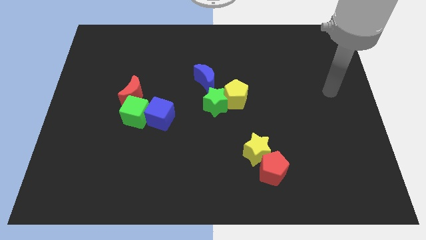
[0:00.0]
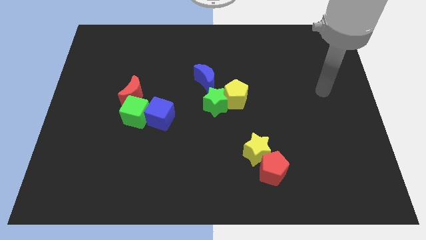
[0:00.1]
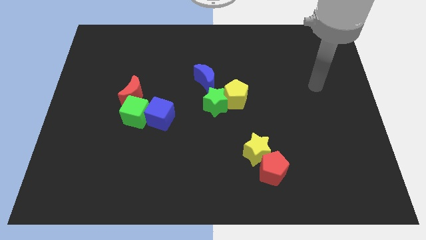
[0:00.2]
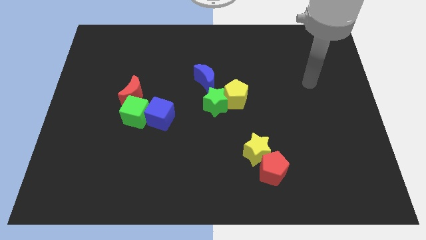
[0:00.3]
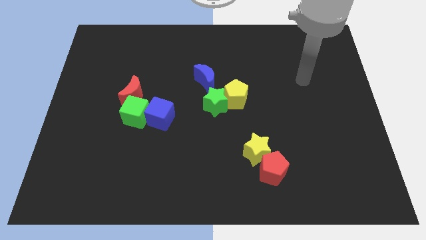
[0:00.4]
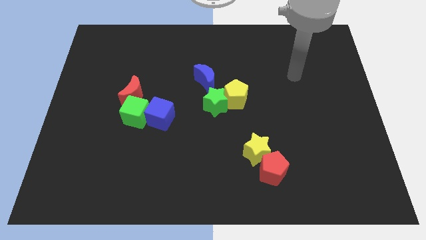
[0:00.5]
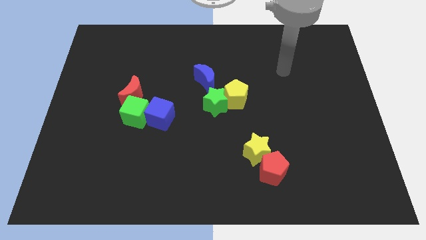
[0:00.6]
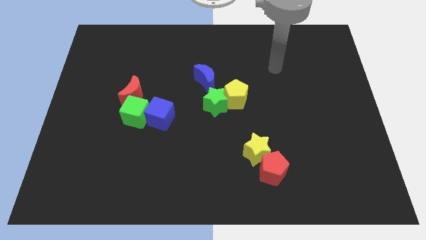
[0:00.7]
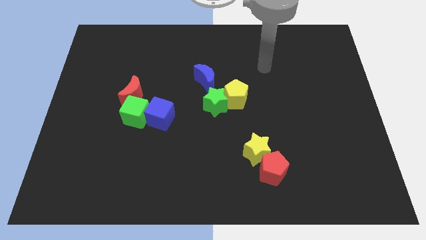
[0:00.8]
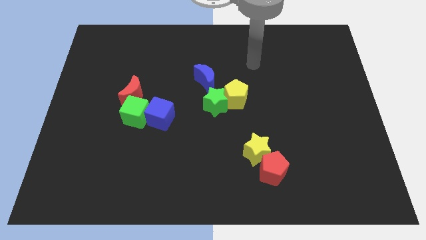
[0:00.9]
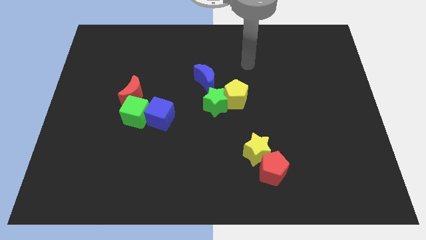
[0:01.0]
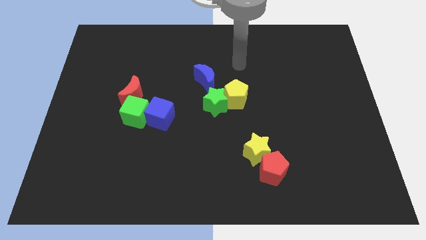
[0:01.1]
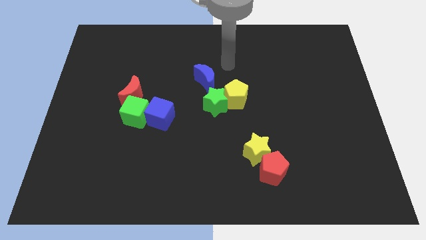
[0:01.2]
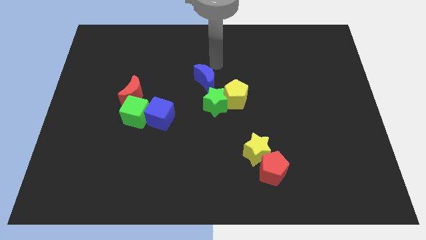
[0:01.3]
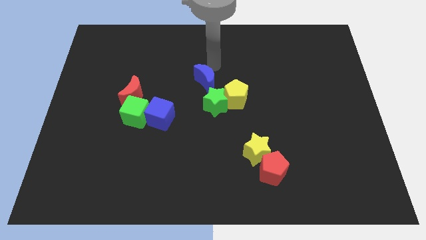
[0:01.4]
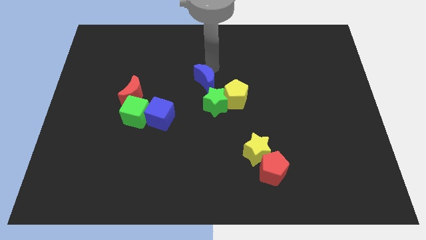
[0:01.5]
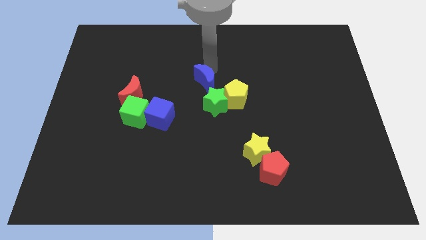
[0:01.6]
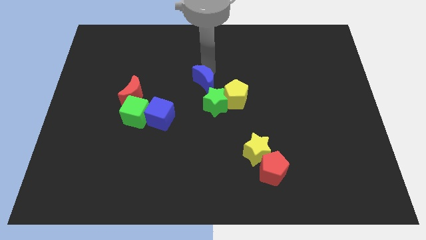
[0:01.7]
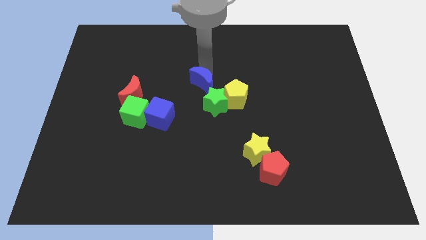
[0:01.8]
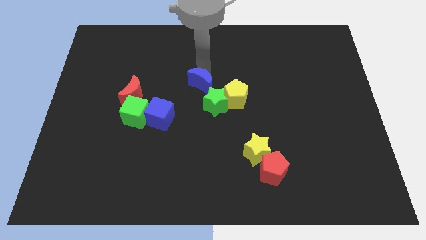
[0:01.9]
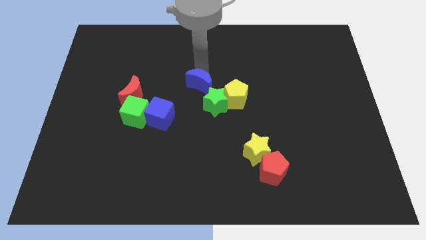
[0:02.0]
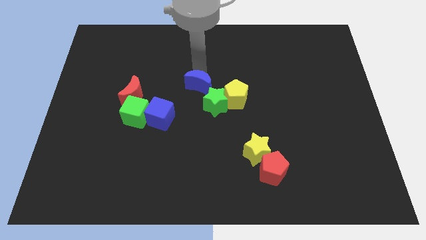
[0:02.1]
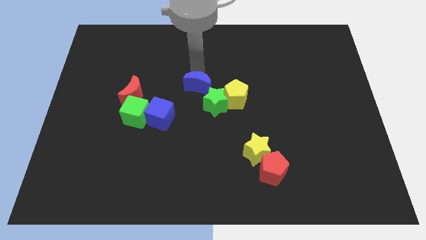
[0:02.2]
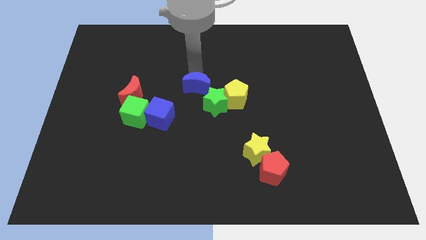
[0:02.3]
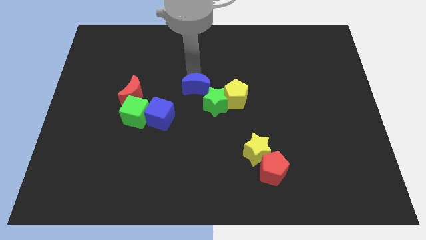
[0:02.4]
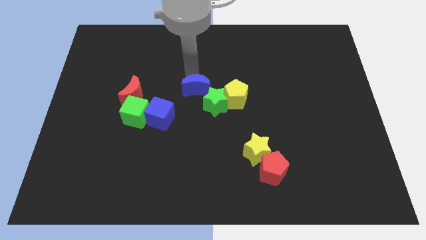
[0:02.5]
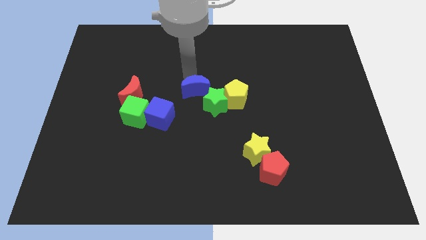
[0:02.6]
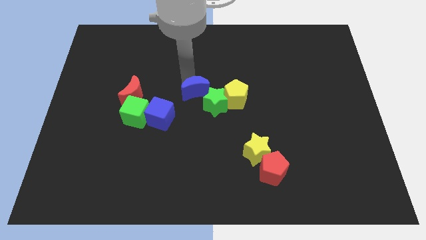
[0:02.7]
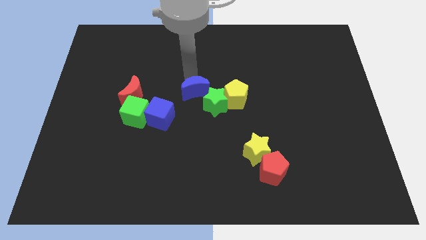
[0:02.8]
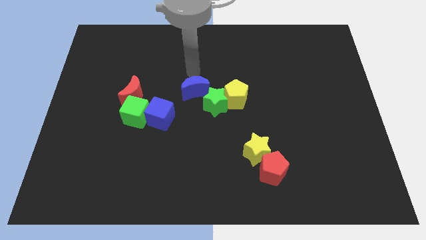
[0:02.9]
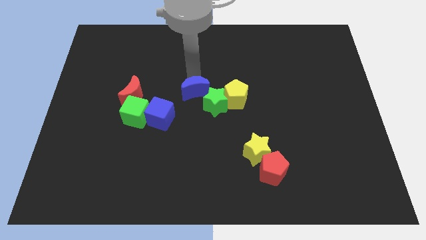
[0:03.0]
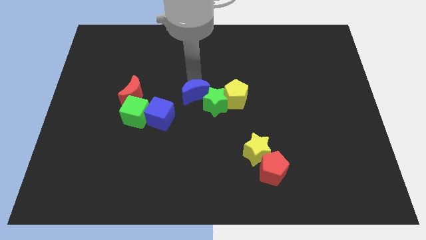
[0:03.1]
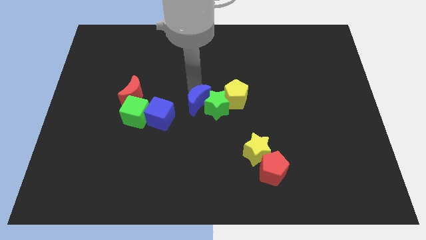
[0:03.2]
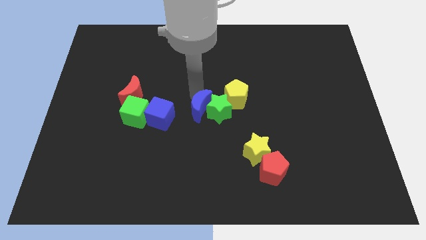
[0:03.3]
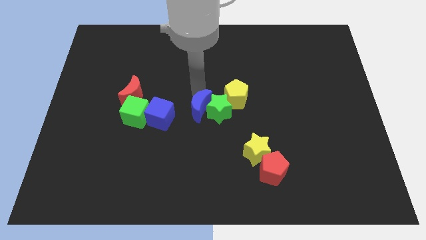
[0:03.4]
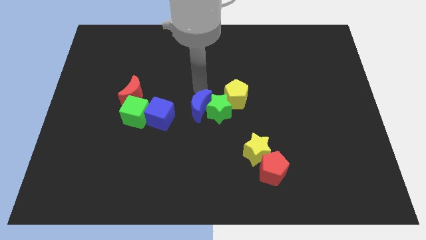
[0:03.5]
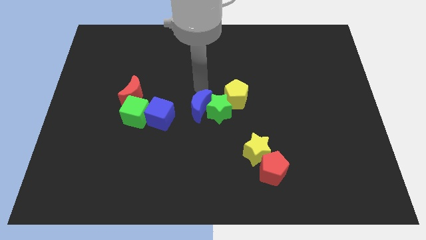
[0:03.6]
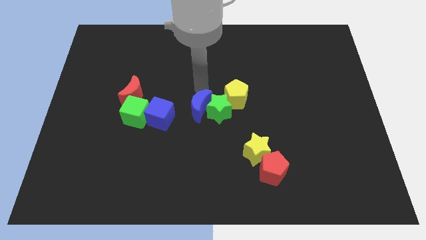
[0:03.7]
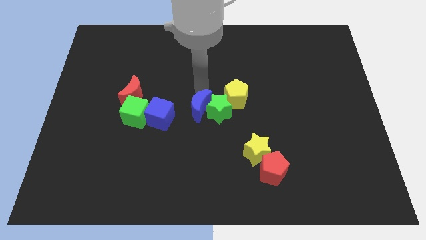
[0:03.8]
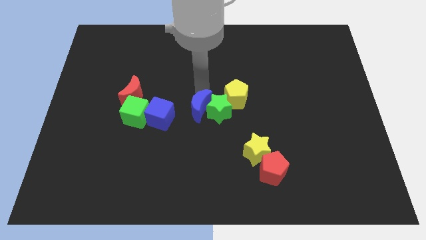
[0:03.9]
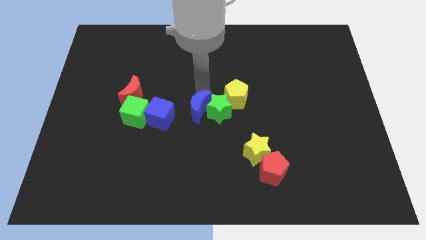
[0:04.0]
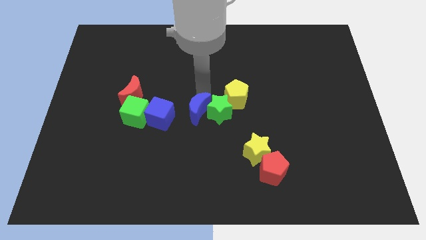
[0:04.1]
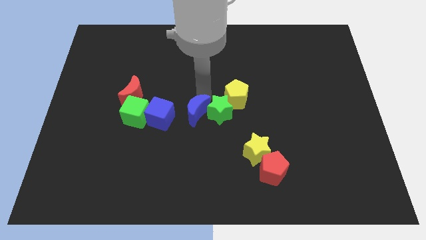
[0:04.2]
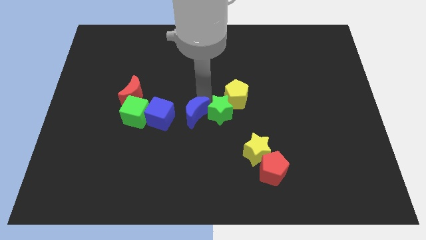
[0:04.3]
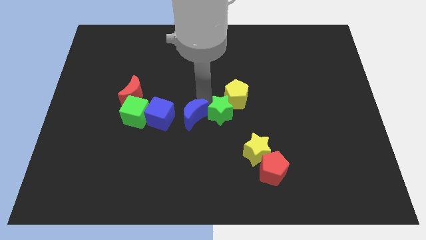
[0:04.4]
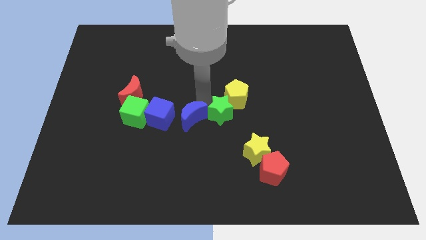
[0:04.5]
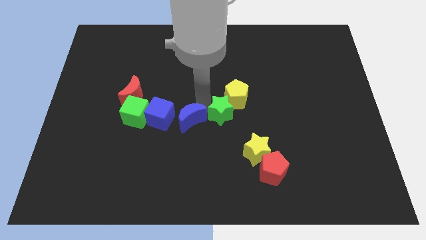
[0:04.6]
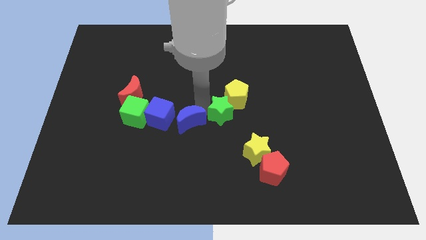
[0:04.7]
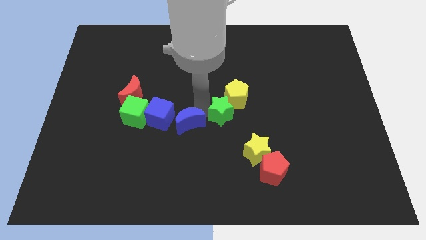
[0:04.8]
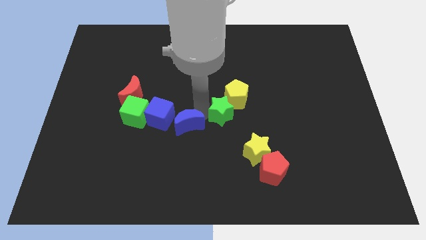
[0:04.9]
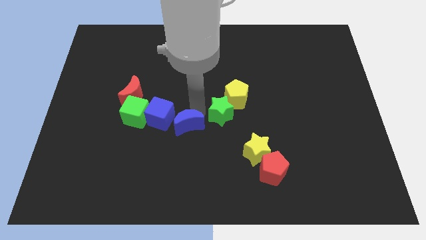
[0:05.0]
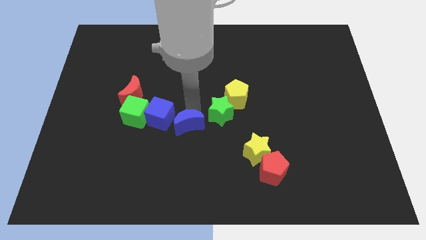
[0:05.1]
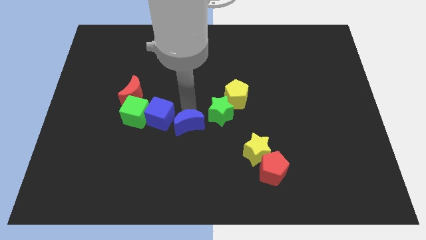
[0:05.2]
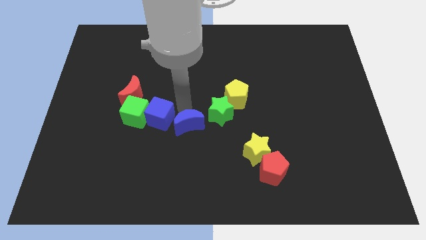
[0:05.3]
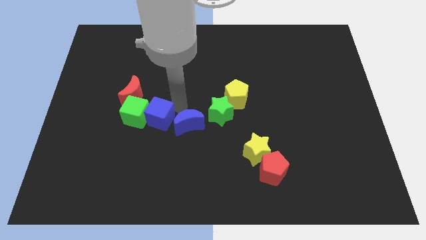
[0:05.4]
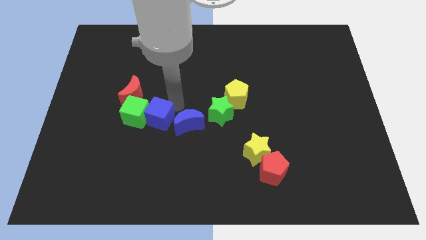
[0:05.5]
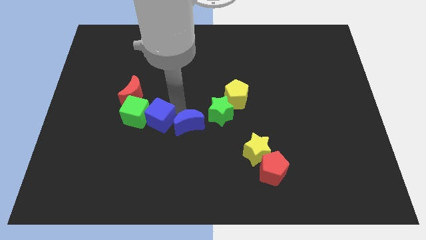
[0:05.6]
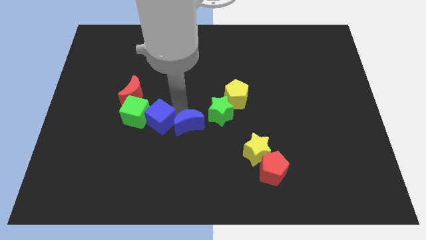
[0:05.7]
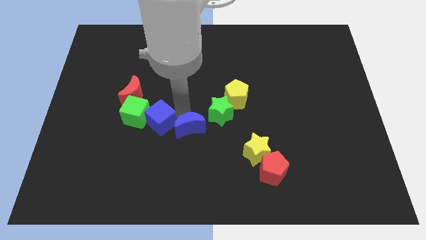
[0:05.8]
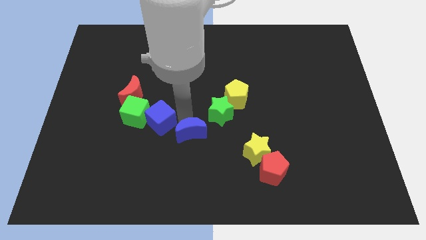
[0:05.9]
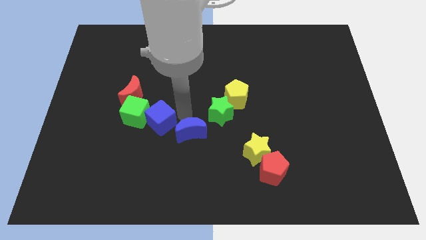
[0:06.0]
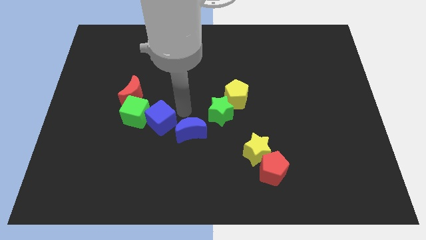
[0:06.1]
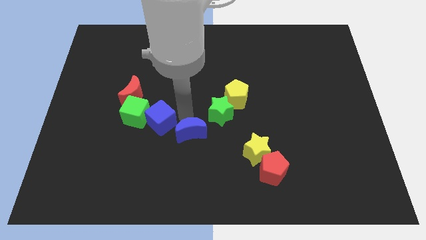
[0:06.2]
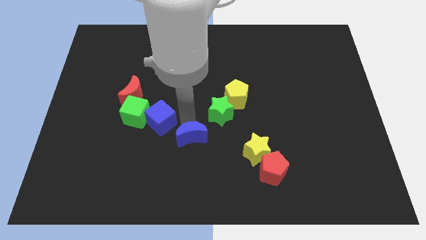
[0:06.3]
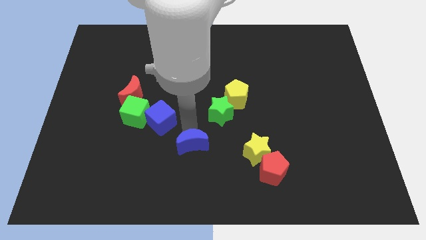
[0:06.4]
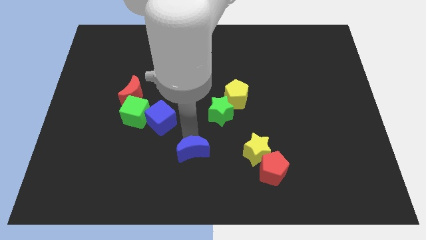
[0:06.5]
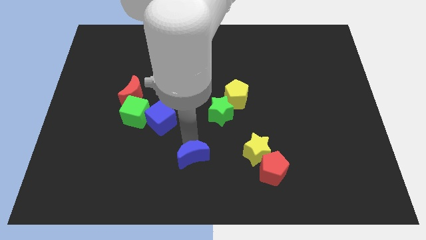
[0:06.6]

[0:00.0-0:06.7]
move the blue moon to the bottom
